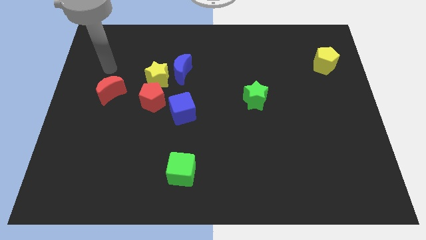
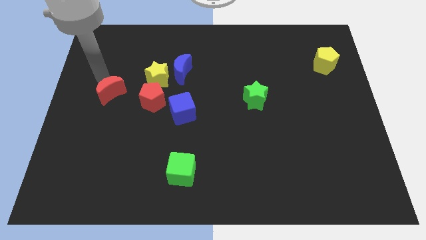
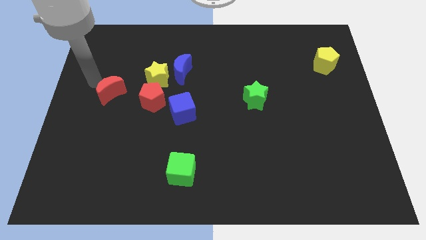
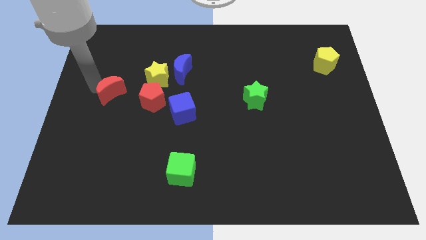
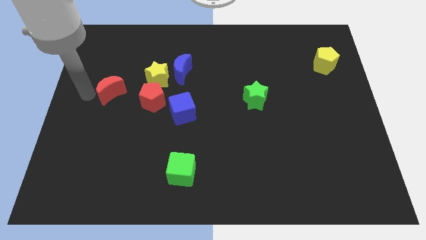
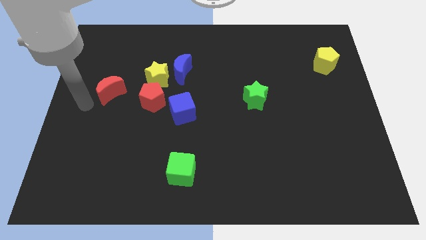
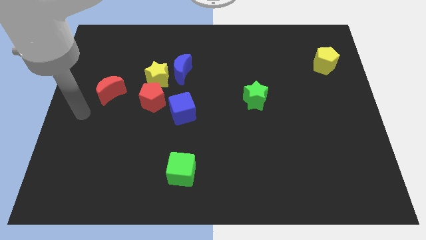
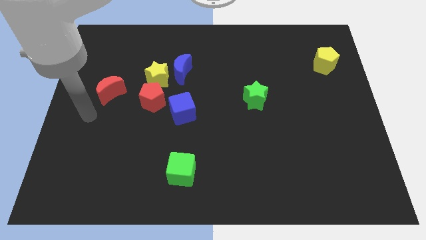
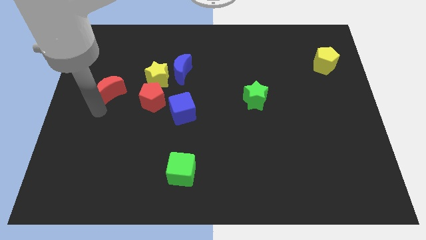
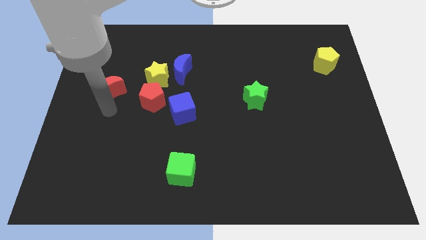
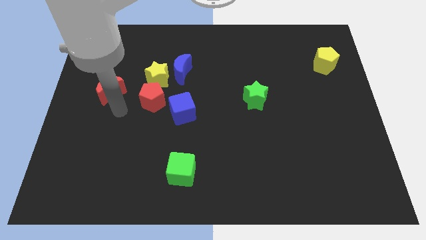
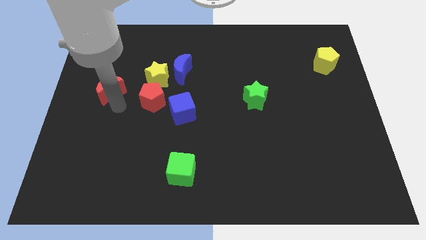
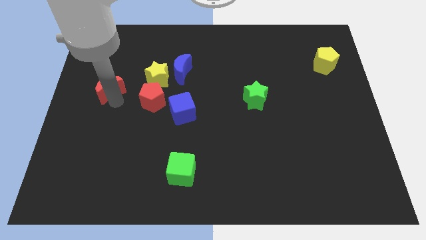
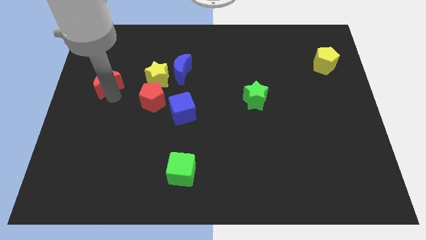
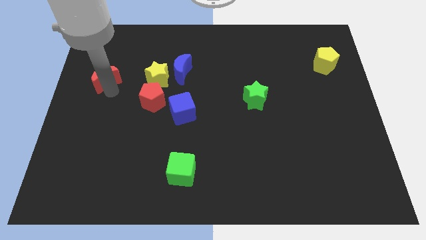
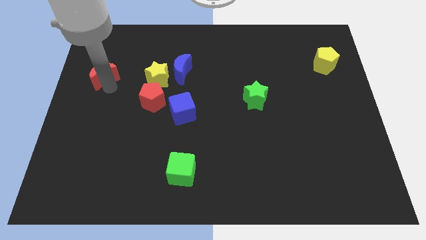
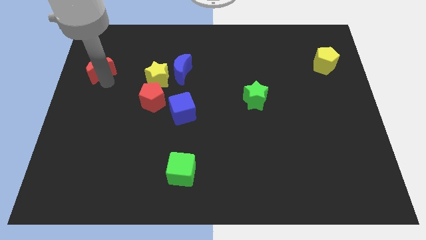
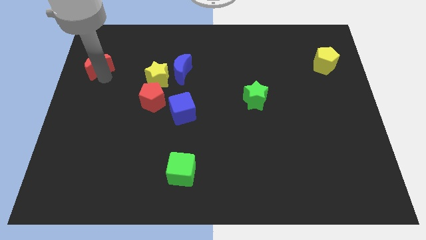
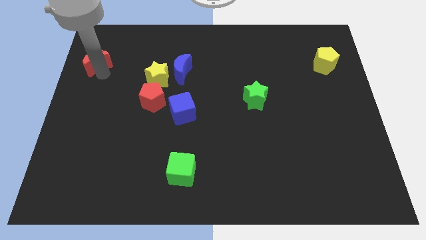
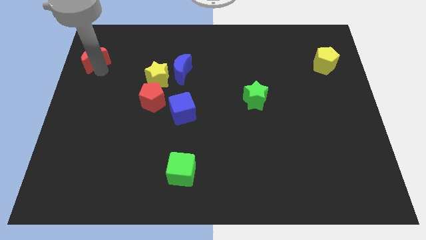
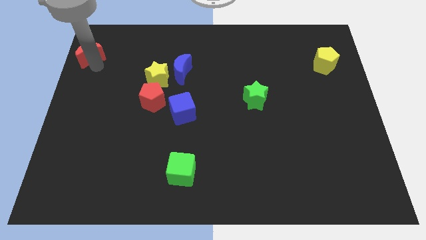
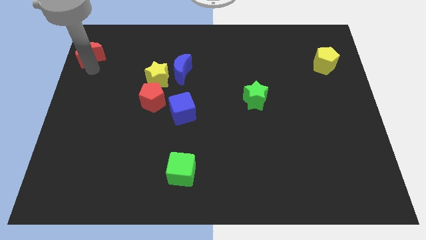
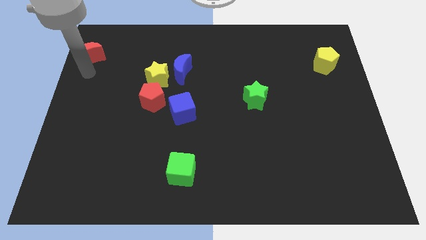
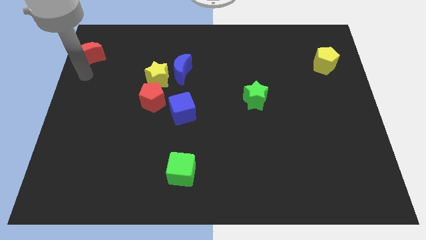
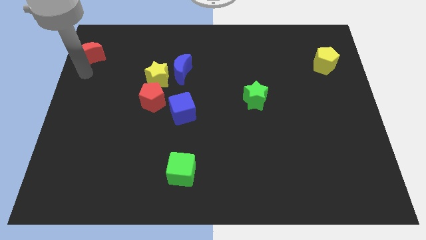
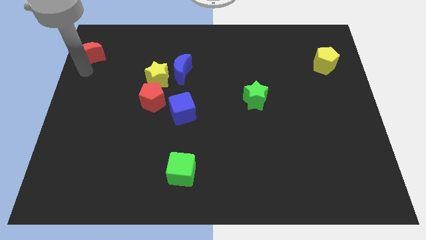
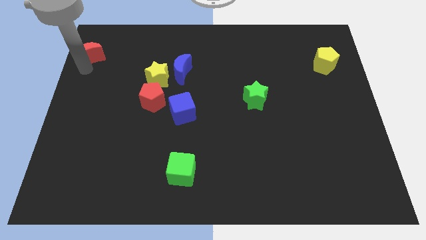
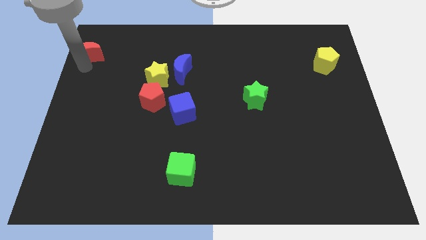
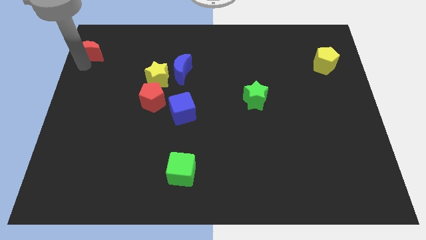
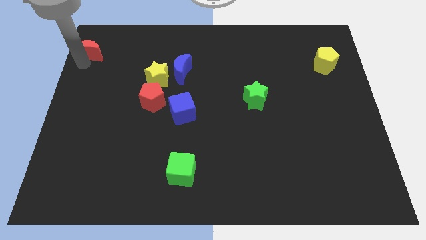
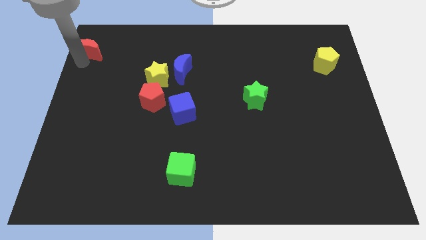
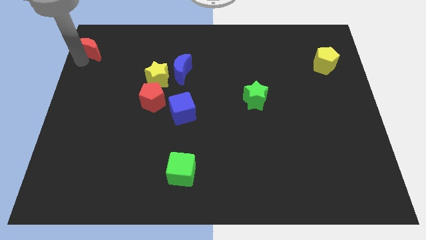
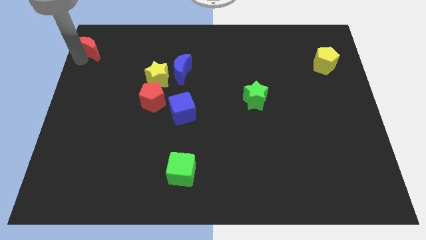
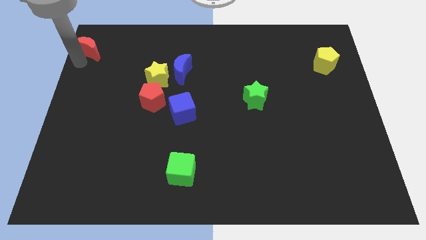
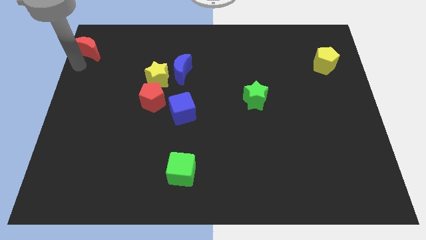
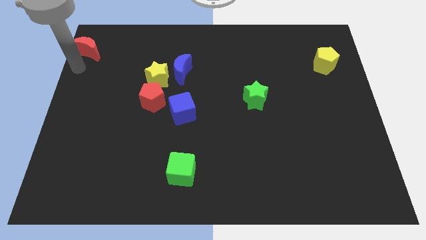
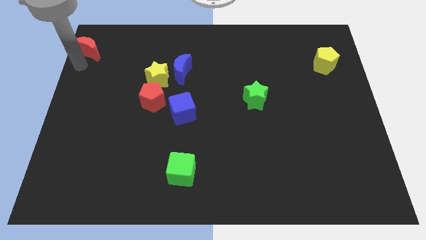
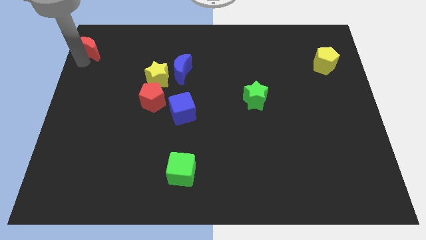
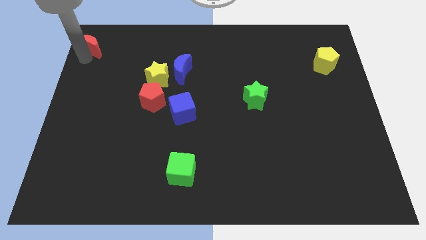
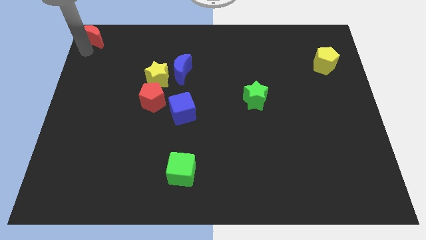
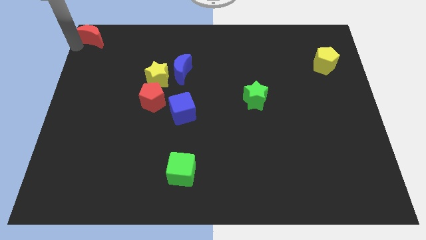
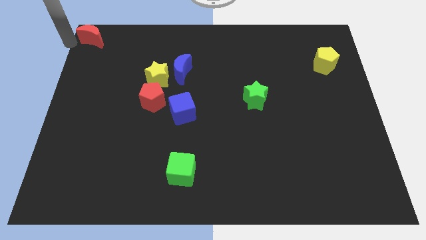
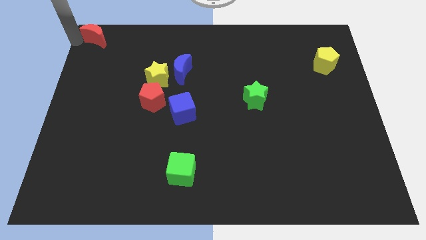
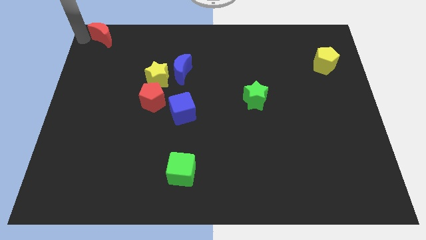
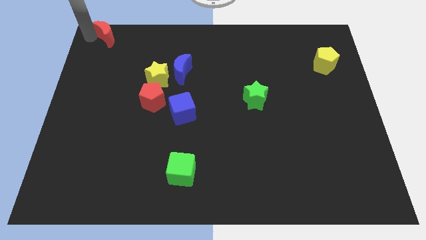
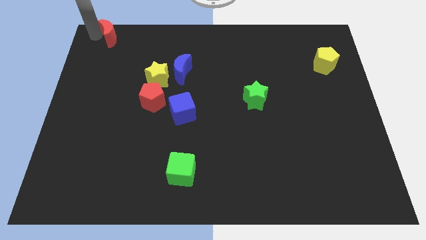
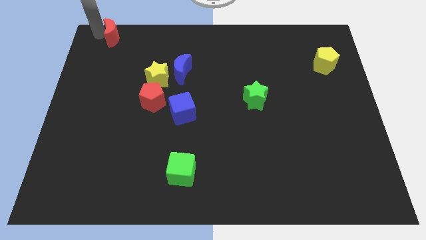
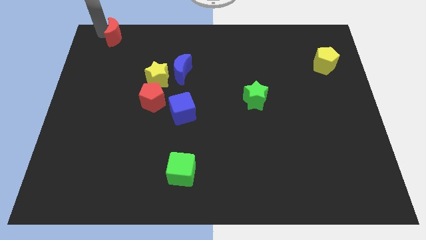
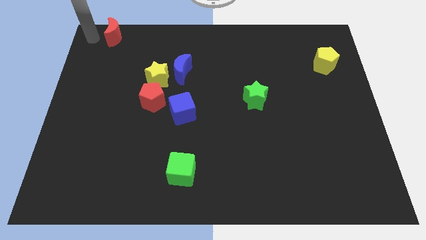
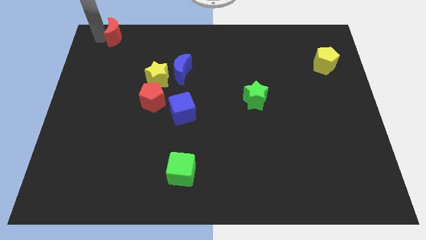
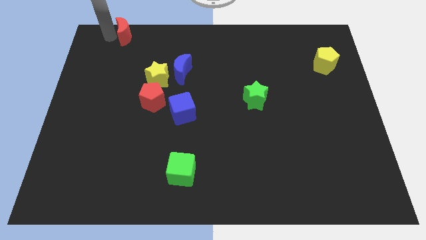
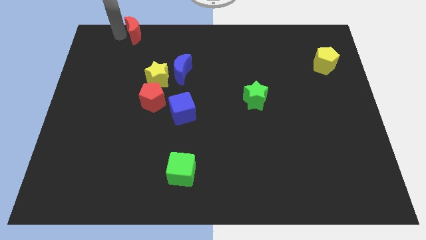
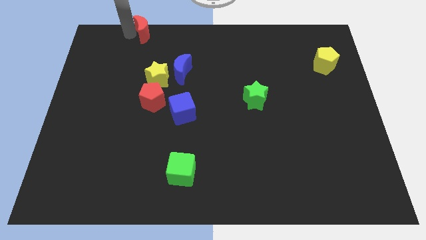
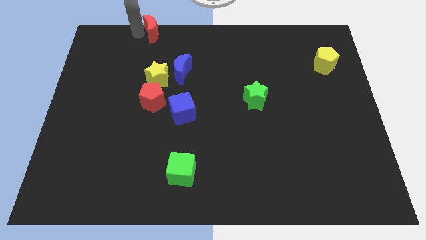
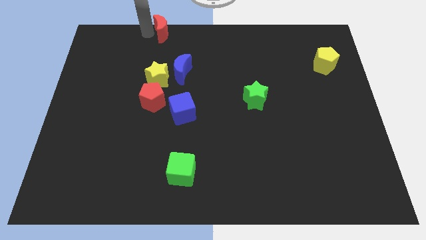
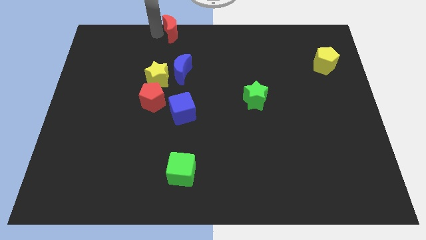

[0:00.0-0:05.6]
move the red moon to the towards your base
